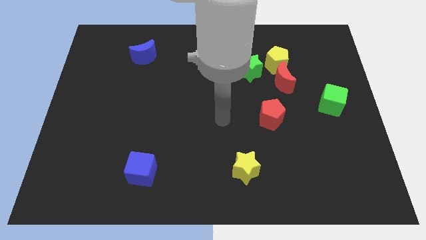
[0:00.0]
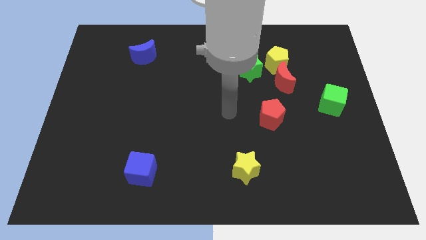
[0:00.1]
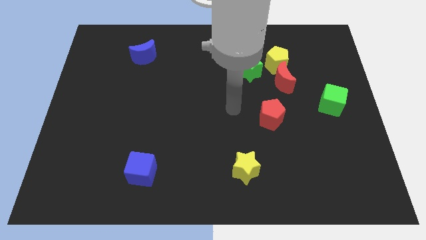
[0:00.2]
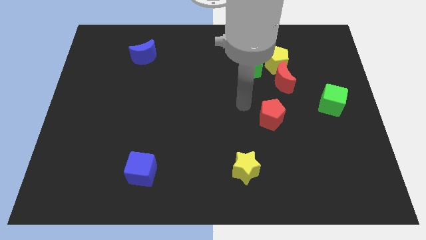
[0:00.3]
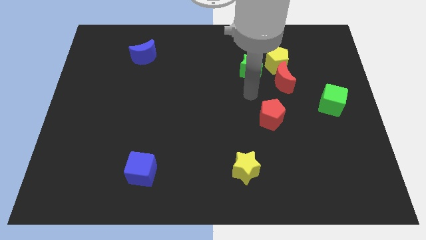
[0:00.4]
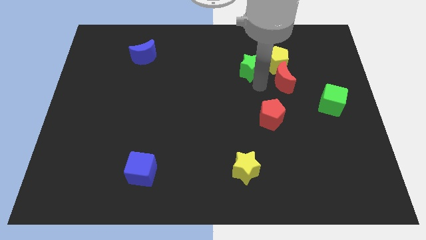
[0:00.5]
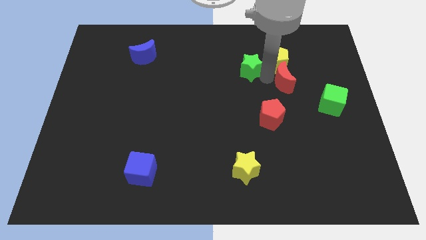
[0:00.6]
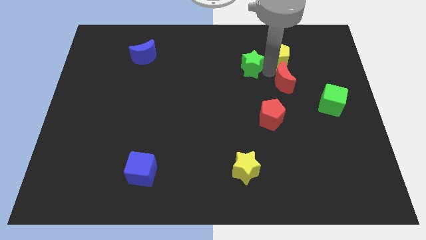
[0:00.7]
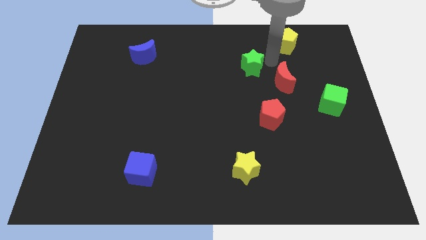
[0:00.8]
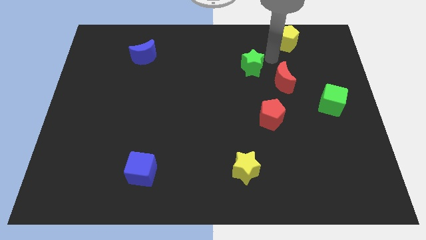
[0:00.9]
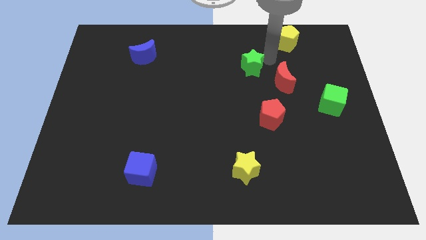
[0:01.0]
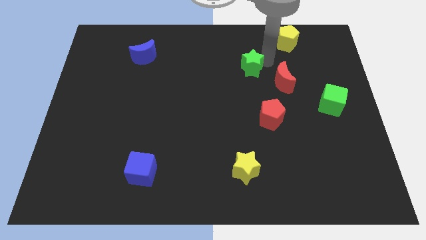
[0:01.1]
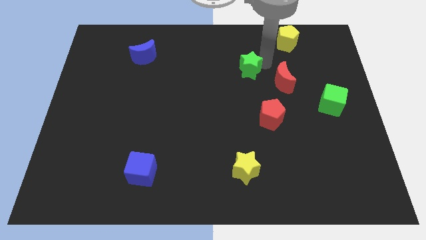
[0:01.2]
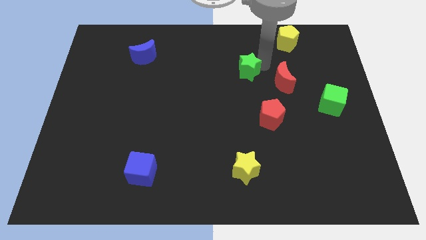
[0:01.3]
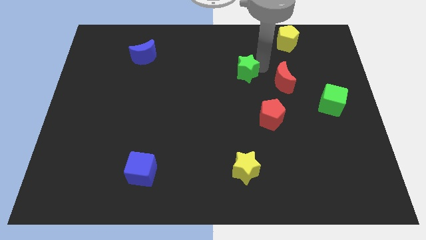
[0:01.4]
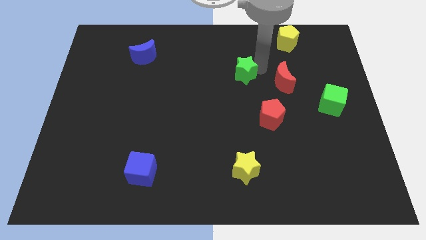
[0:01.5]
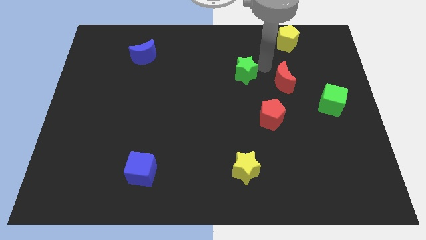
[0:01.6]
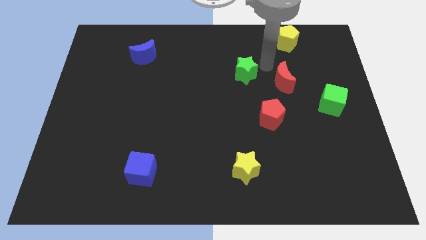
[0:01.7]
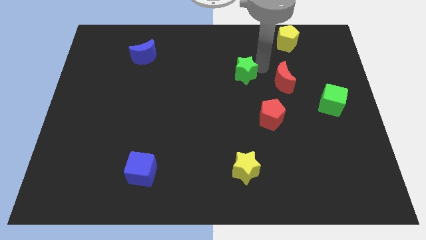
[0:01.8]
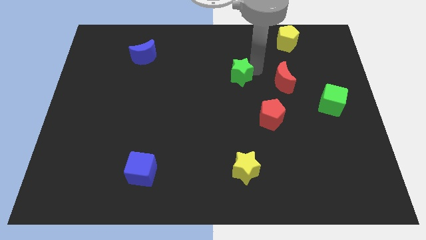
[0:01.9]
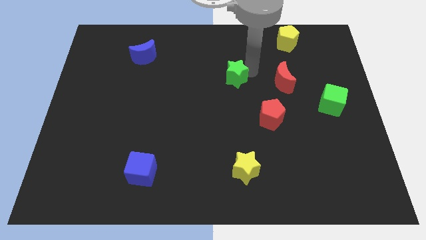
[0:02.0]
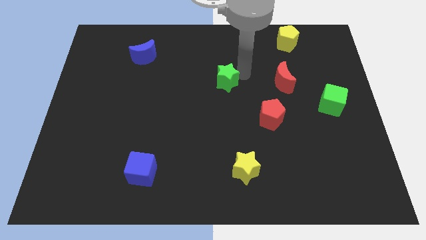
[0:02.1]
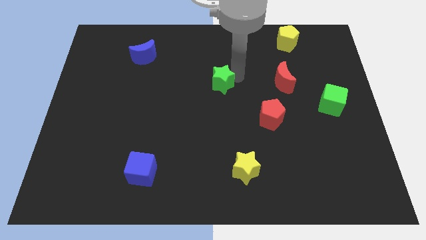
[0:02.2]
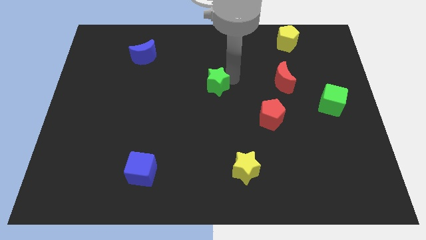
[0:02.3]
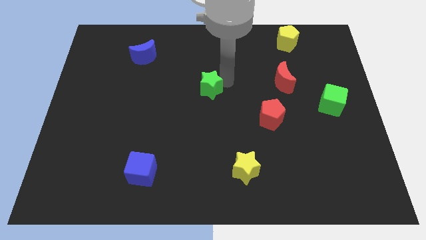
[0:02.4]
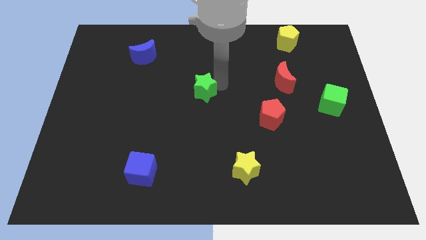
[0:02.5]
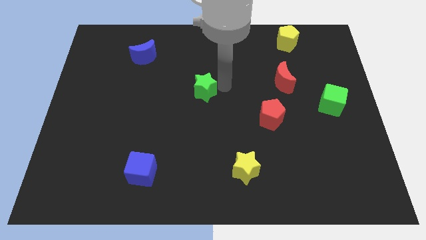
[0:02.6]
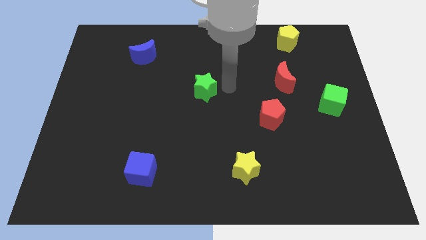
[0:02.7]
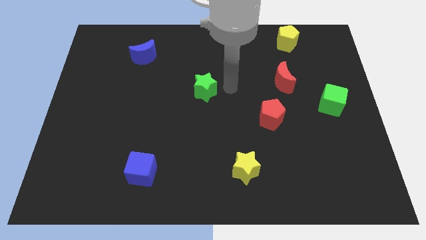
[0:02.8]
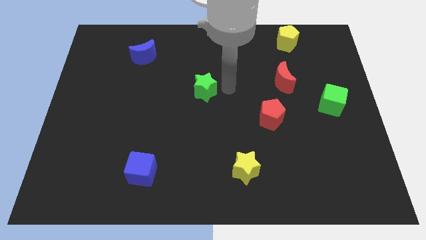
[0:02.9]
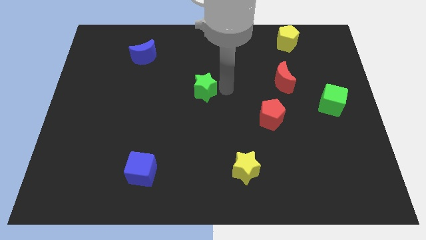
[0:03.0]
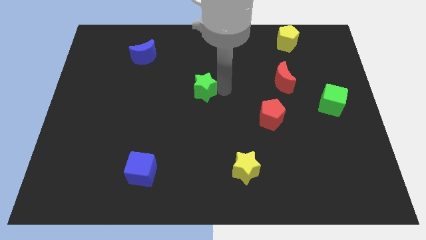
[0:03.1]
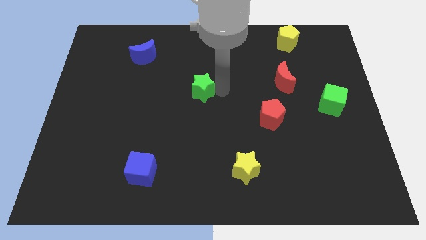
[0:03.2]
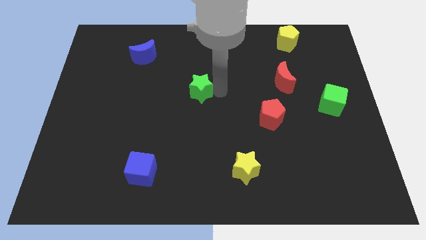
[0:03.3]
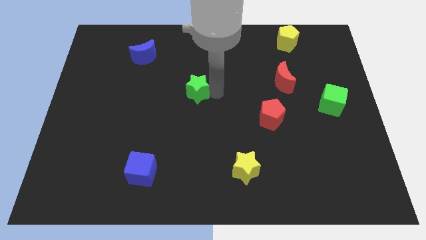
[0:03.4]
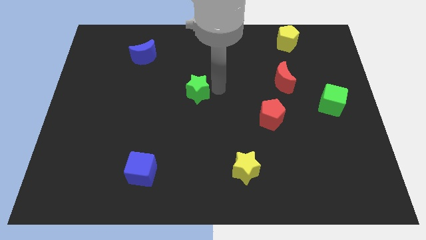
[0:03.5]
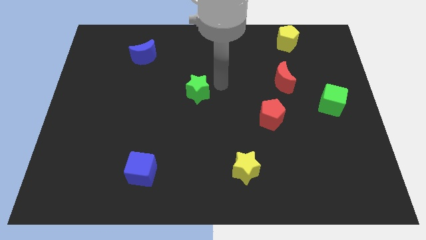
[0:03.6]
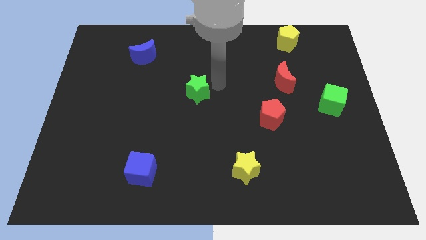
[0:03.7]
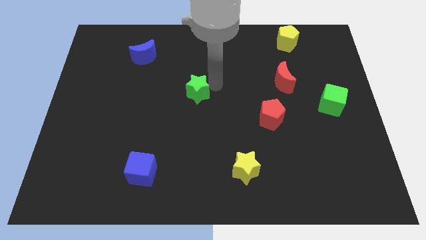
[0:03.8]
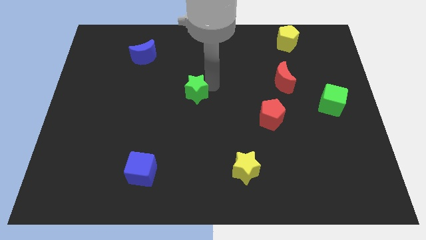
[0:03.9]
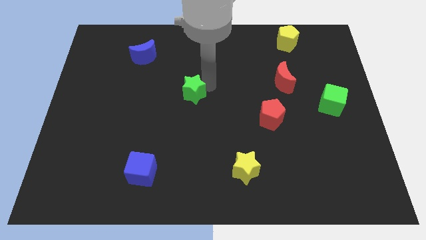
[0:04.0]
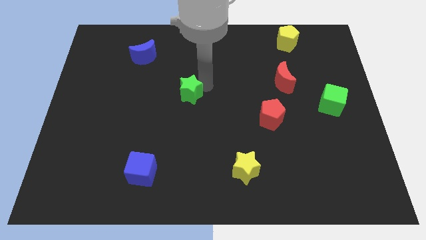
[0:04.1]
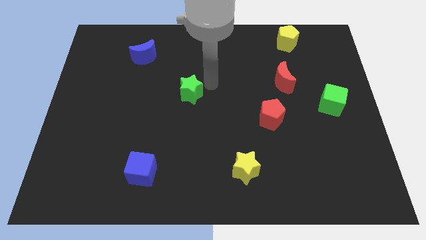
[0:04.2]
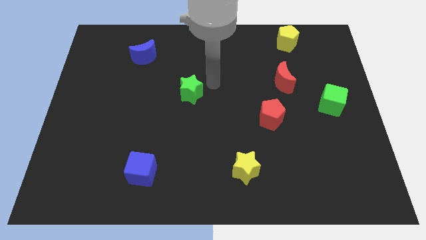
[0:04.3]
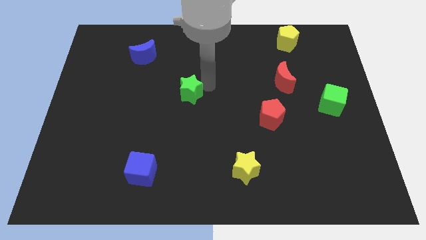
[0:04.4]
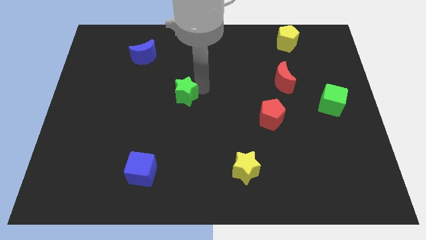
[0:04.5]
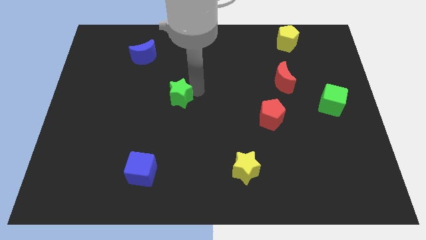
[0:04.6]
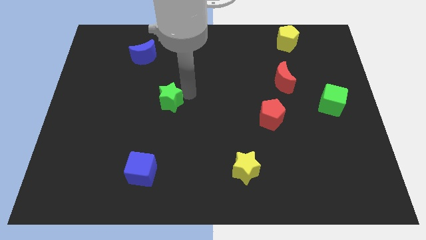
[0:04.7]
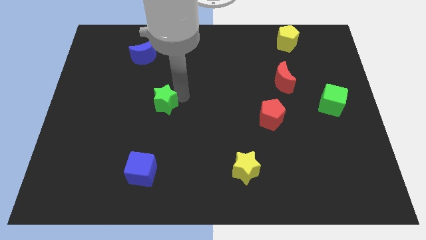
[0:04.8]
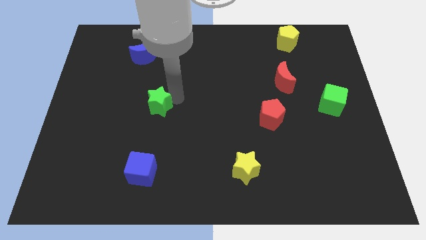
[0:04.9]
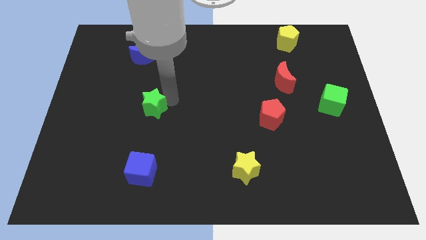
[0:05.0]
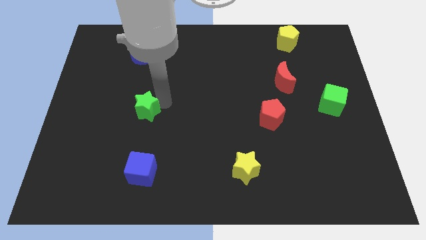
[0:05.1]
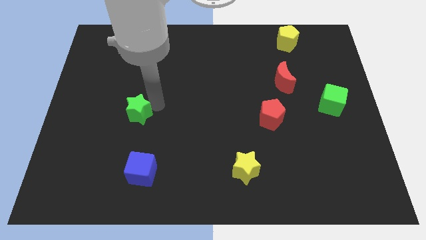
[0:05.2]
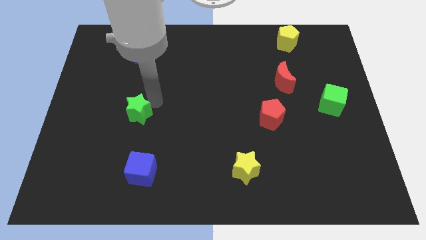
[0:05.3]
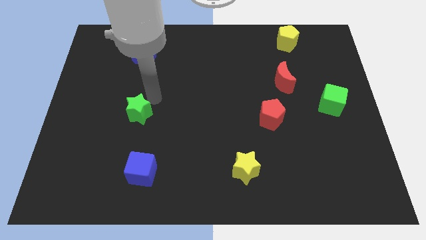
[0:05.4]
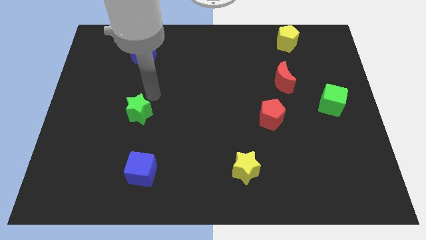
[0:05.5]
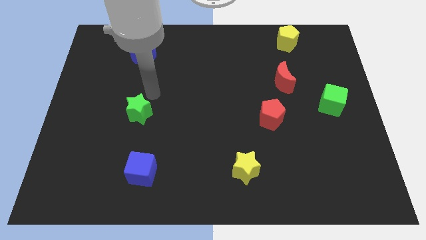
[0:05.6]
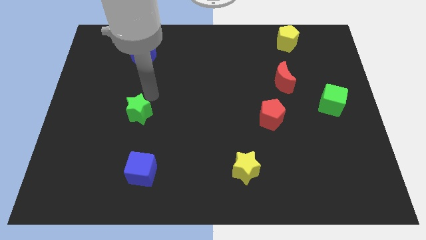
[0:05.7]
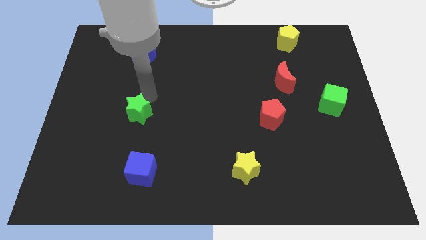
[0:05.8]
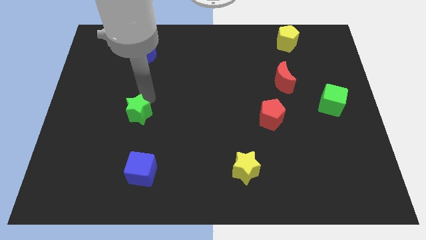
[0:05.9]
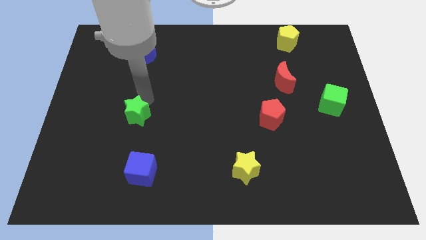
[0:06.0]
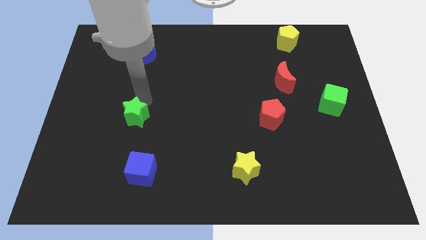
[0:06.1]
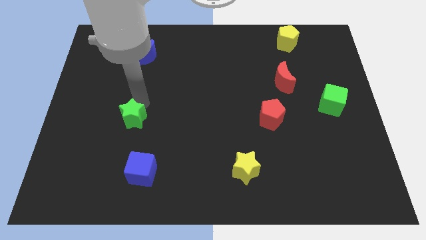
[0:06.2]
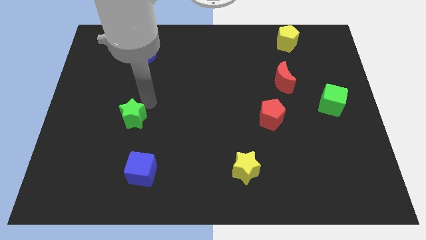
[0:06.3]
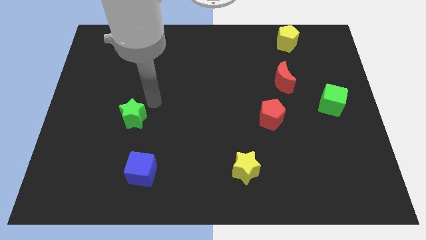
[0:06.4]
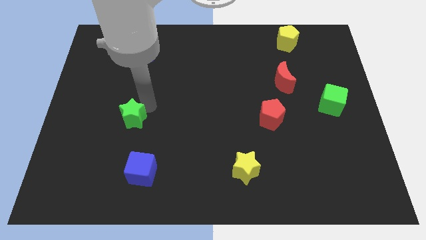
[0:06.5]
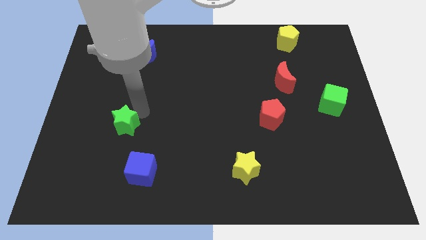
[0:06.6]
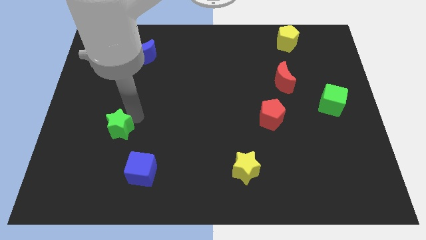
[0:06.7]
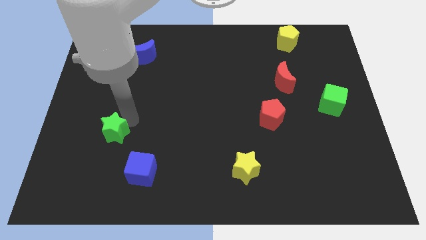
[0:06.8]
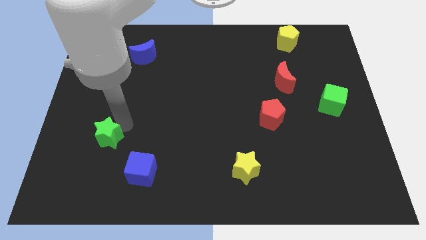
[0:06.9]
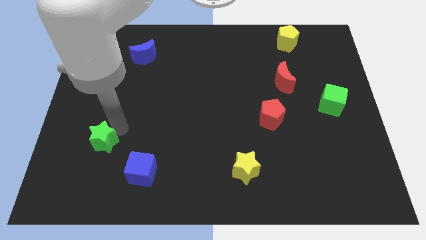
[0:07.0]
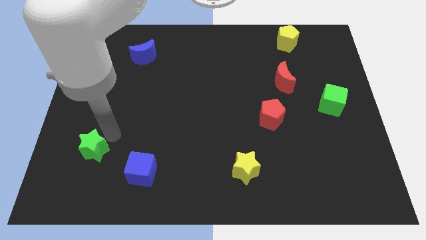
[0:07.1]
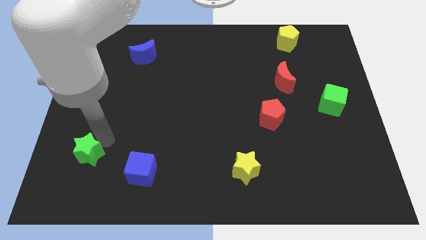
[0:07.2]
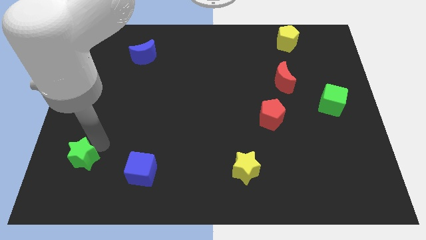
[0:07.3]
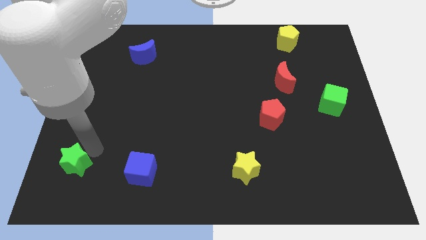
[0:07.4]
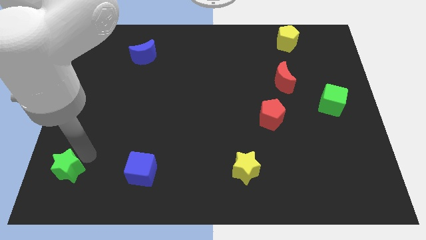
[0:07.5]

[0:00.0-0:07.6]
put the green star to the lower left corner
